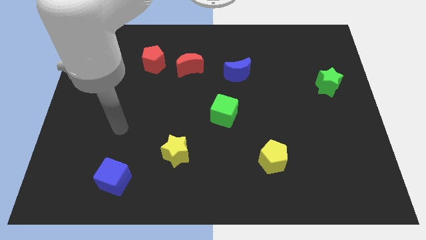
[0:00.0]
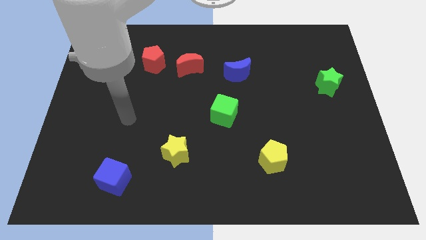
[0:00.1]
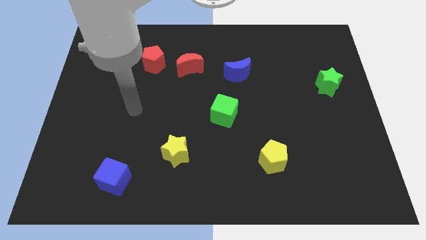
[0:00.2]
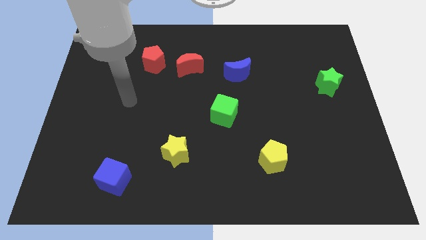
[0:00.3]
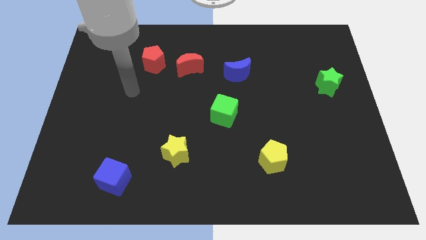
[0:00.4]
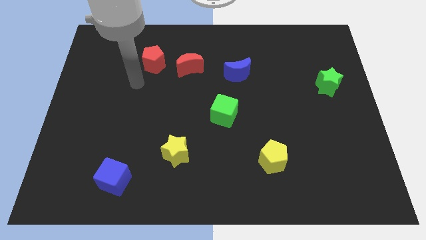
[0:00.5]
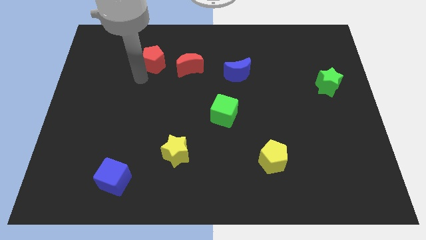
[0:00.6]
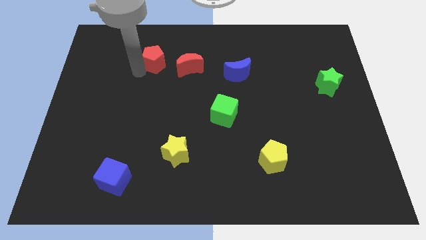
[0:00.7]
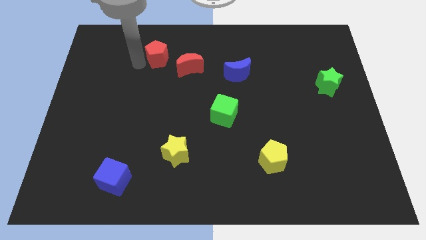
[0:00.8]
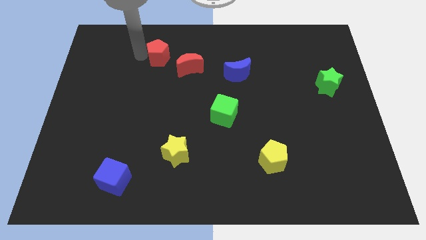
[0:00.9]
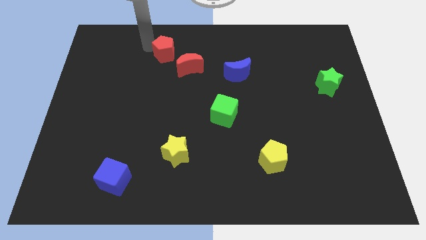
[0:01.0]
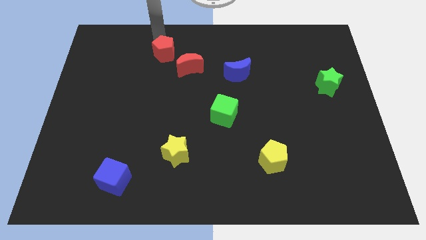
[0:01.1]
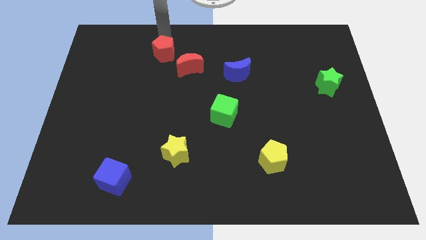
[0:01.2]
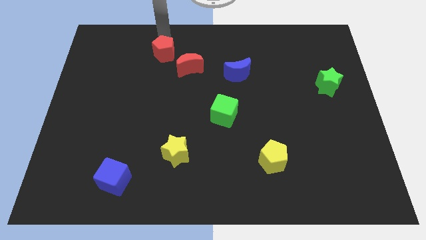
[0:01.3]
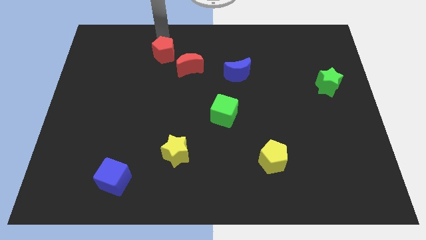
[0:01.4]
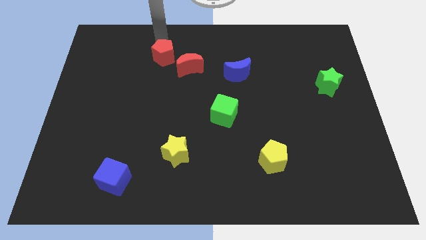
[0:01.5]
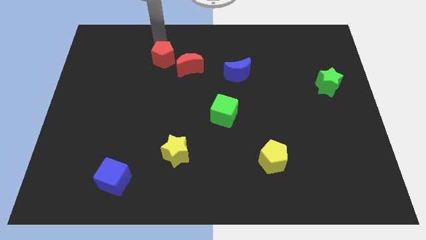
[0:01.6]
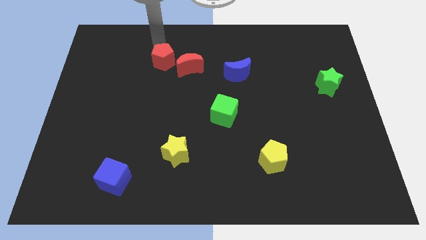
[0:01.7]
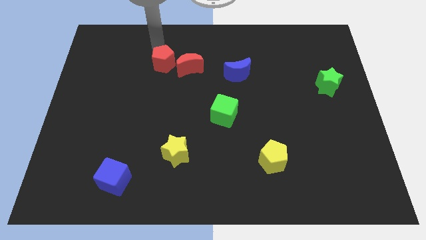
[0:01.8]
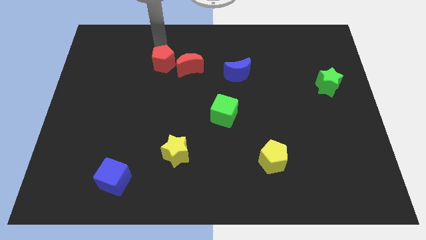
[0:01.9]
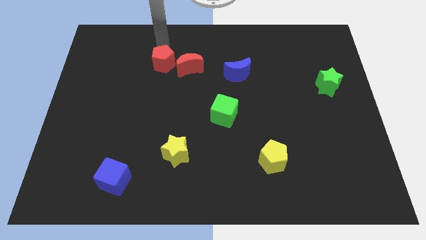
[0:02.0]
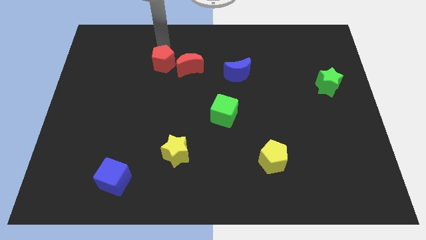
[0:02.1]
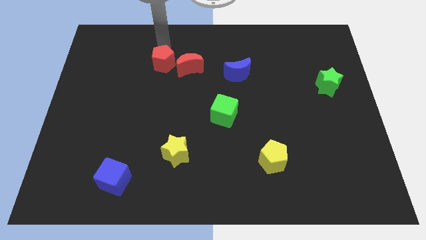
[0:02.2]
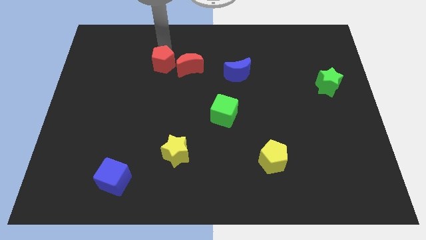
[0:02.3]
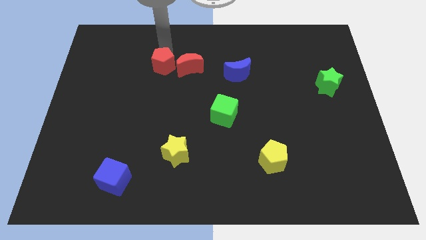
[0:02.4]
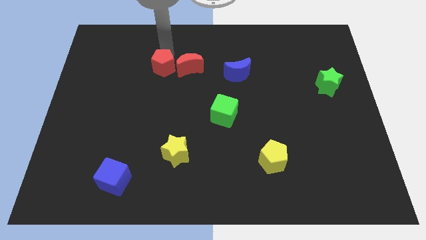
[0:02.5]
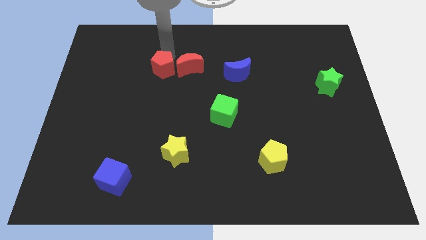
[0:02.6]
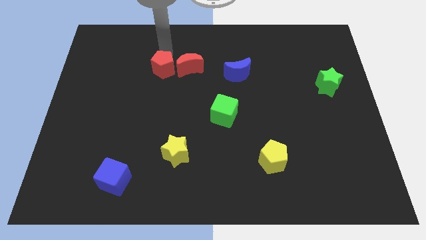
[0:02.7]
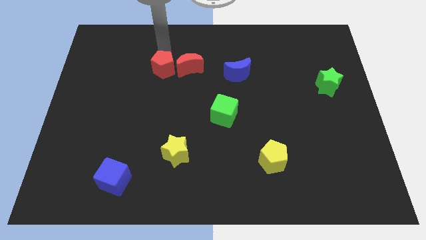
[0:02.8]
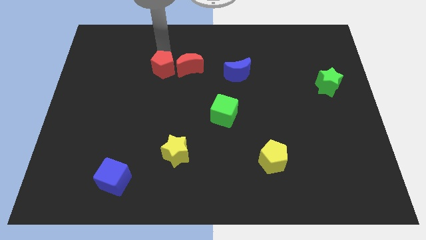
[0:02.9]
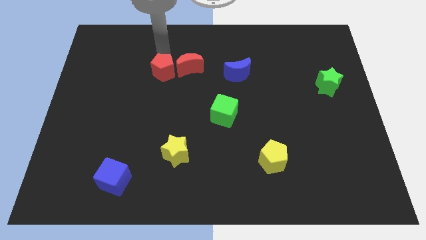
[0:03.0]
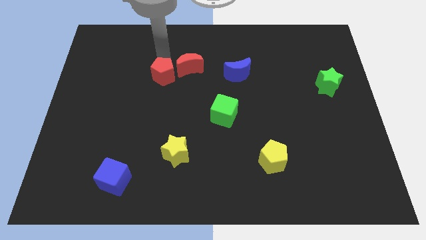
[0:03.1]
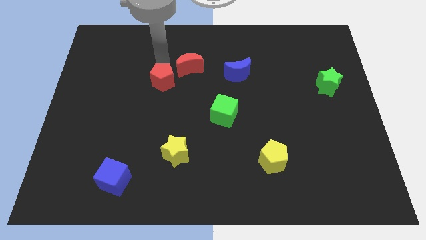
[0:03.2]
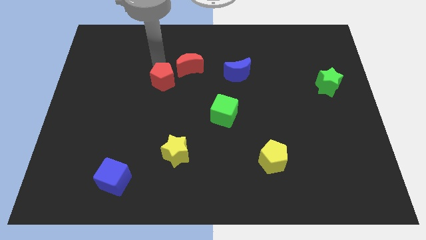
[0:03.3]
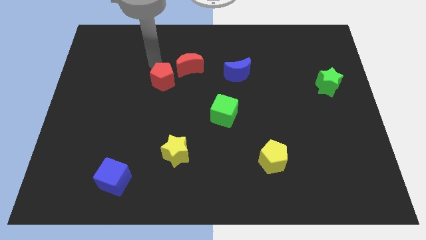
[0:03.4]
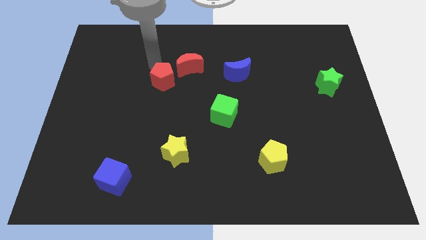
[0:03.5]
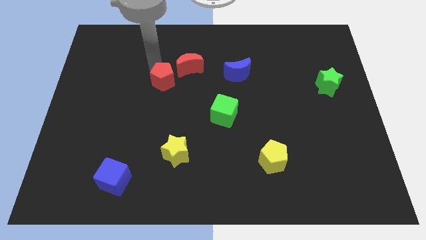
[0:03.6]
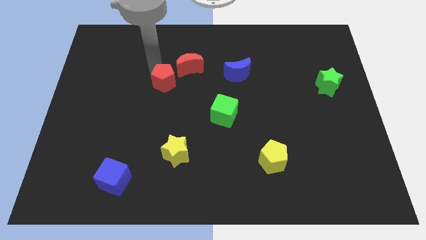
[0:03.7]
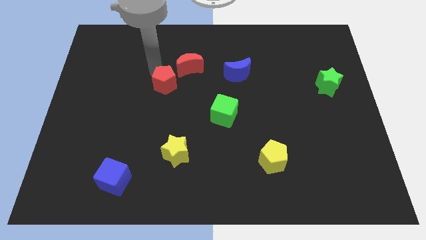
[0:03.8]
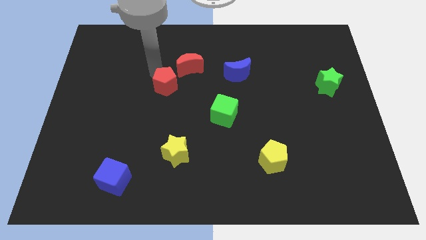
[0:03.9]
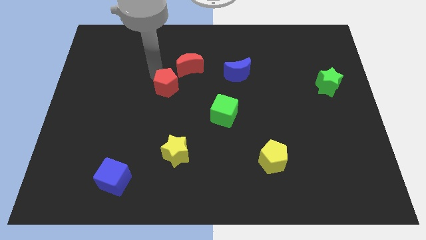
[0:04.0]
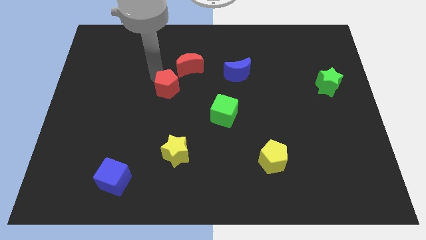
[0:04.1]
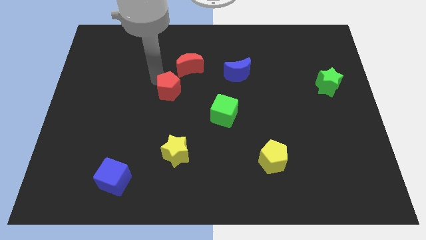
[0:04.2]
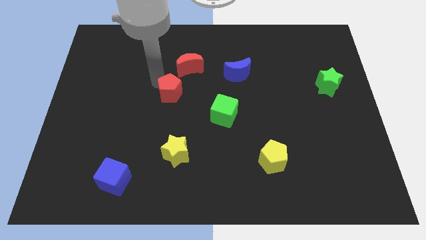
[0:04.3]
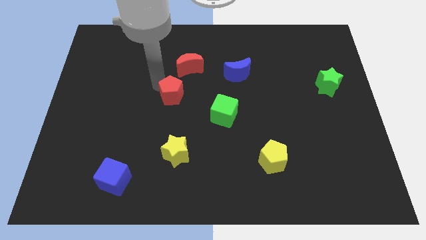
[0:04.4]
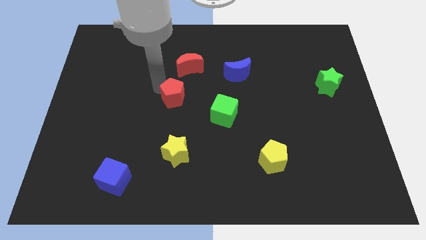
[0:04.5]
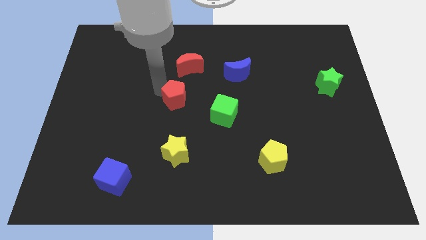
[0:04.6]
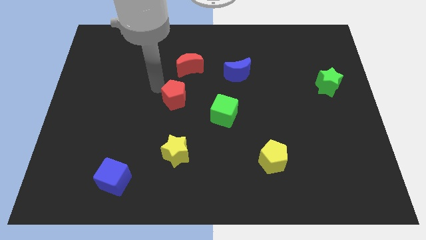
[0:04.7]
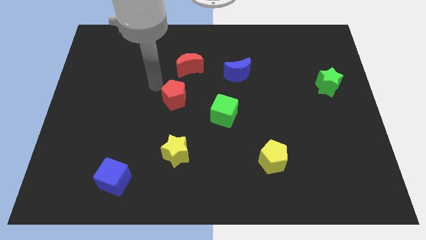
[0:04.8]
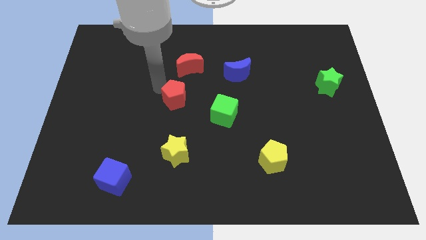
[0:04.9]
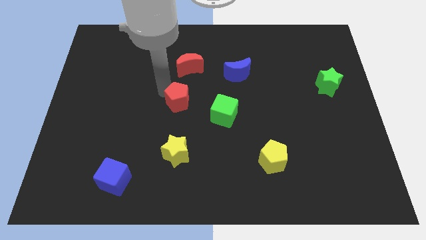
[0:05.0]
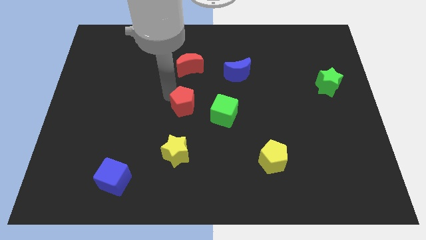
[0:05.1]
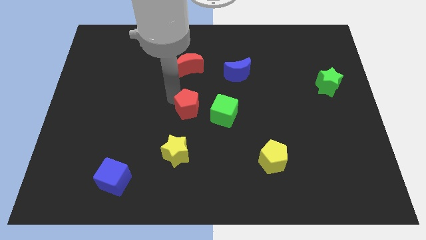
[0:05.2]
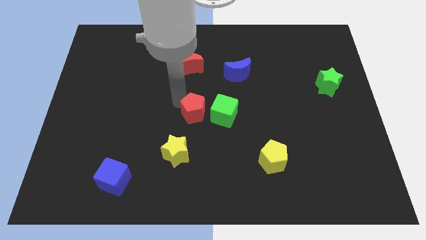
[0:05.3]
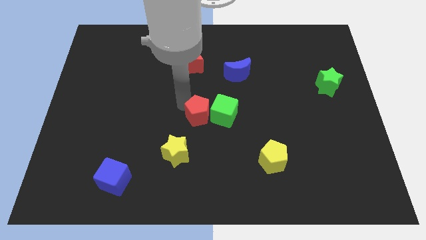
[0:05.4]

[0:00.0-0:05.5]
push the red pentagon diagonally downwards and right

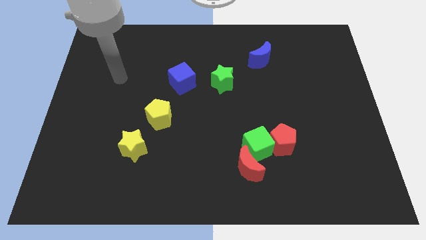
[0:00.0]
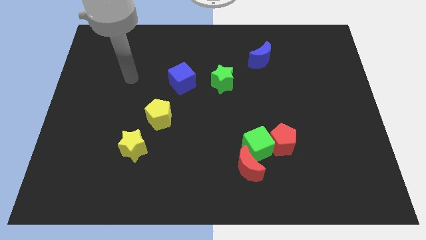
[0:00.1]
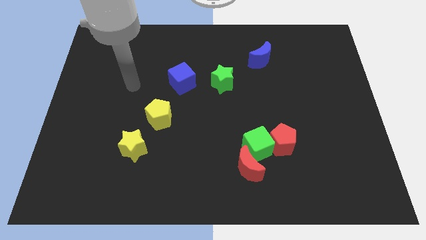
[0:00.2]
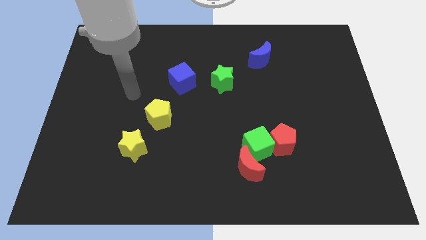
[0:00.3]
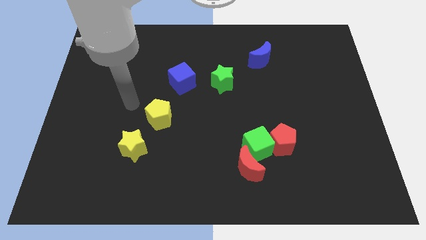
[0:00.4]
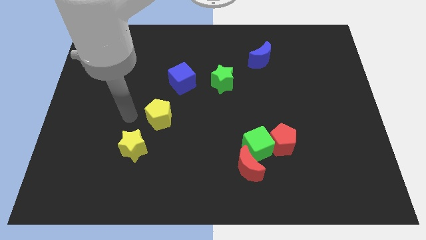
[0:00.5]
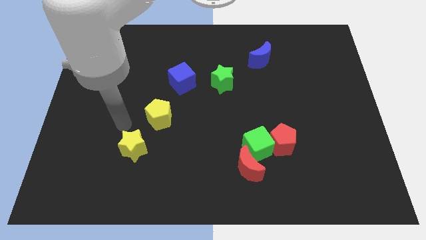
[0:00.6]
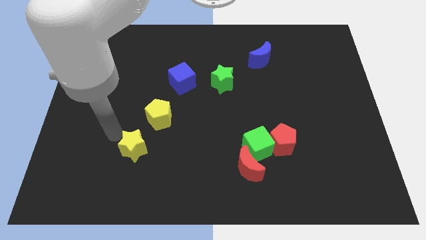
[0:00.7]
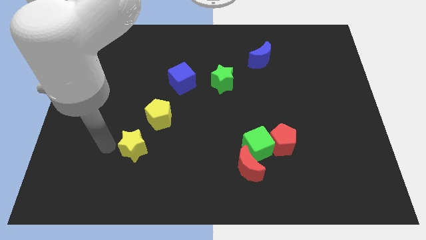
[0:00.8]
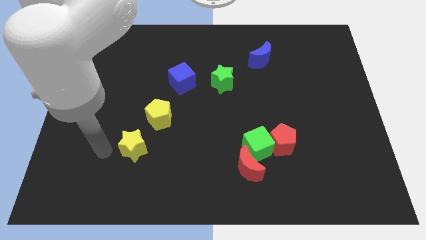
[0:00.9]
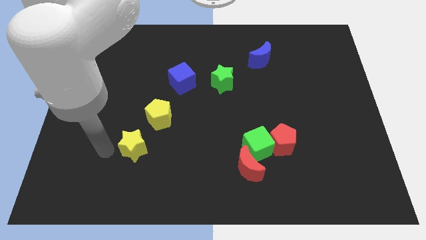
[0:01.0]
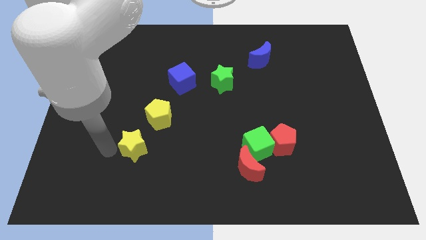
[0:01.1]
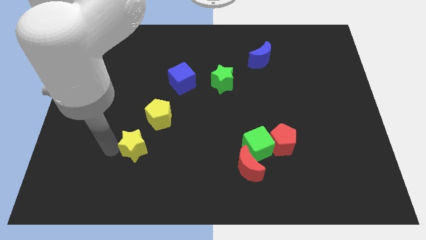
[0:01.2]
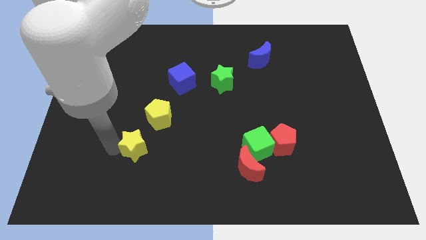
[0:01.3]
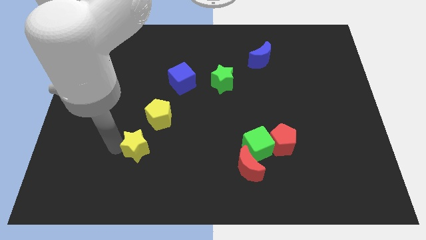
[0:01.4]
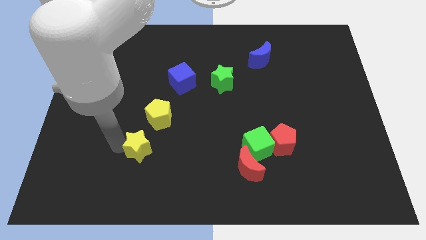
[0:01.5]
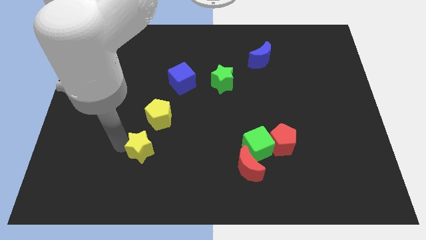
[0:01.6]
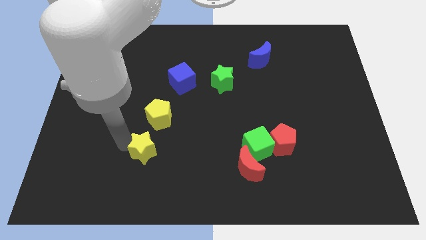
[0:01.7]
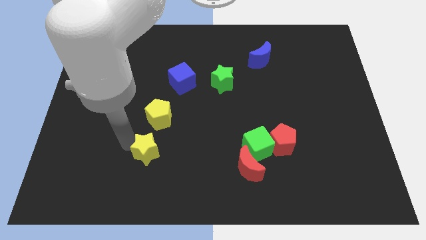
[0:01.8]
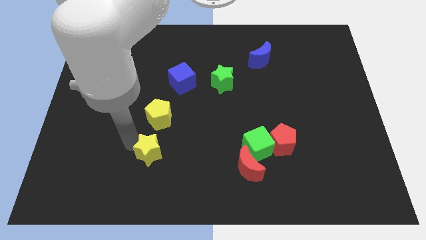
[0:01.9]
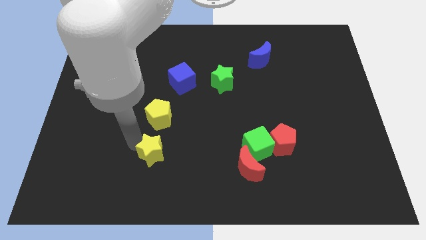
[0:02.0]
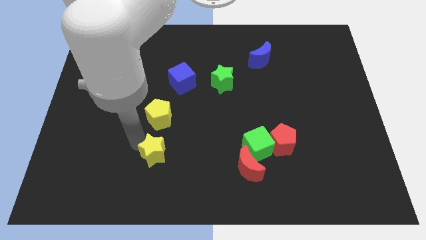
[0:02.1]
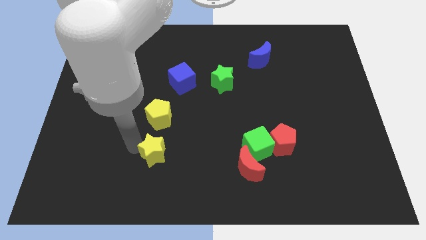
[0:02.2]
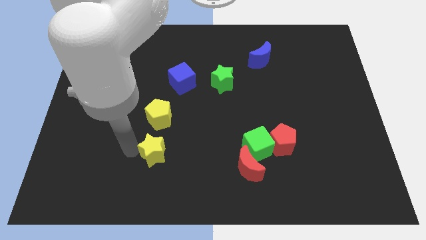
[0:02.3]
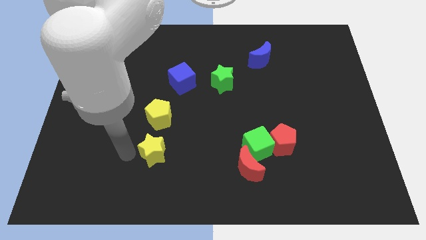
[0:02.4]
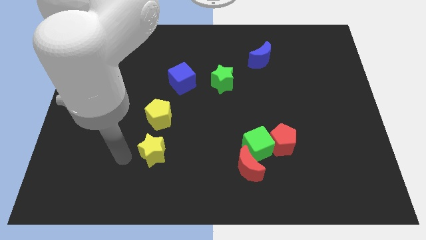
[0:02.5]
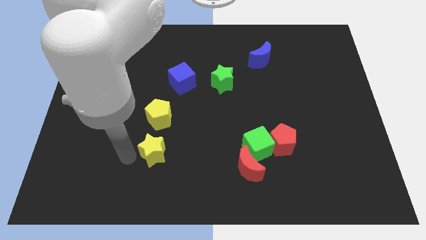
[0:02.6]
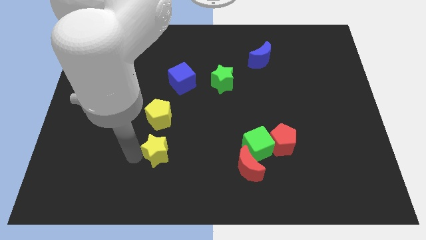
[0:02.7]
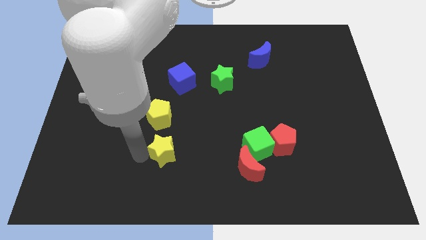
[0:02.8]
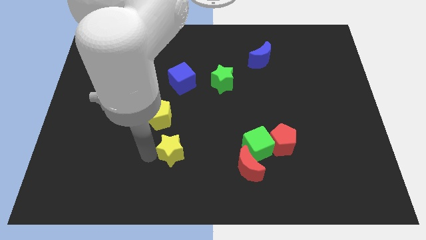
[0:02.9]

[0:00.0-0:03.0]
slide the yellow star right slightly
